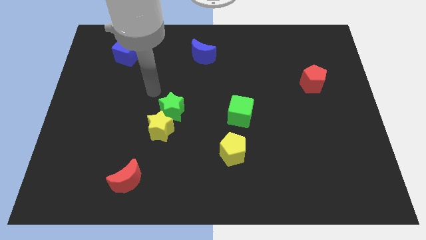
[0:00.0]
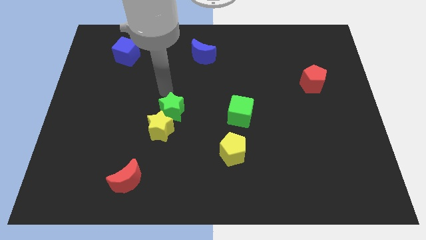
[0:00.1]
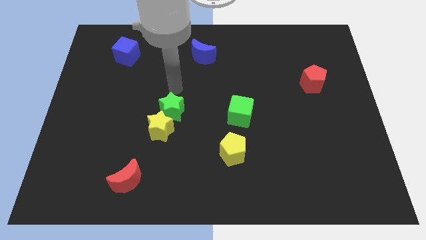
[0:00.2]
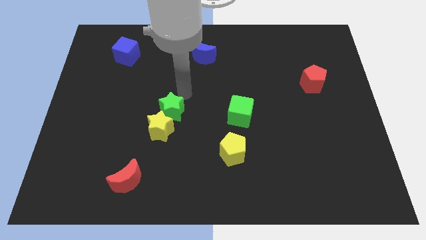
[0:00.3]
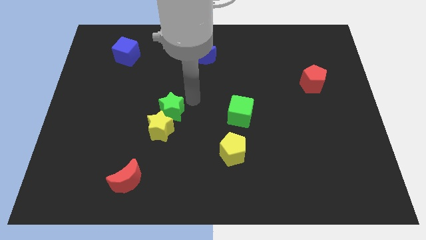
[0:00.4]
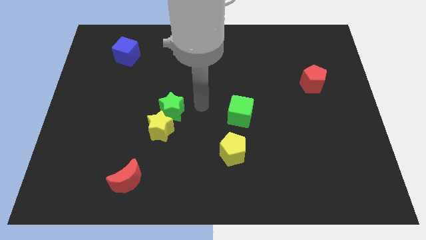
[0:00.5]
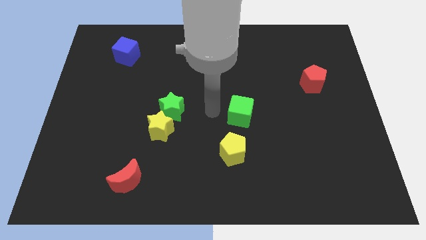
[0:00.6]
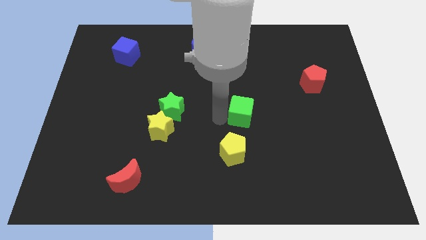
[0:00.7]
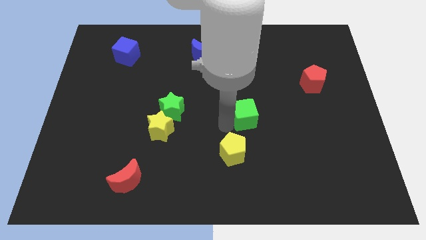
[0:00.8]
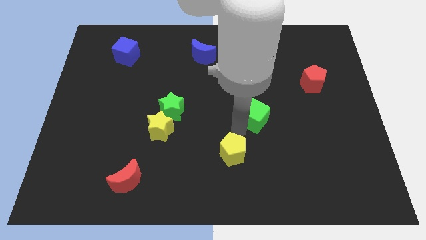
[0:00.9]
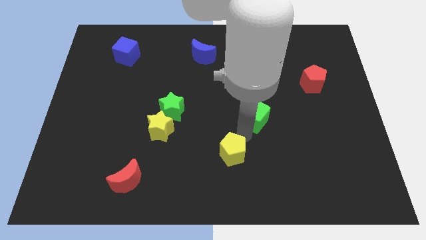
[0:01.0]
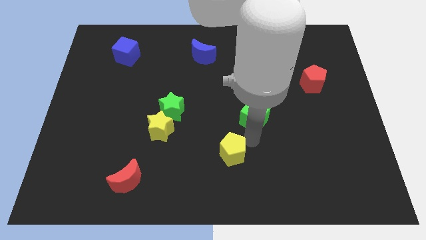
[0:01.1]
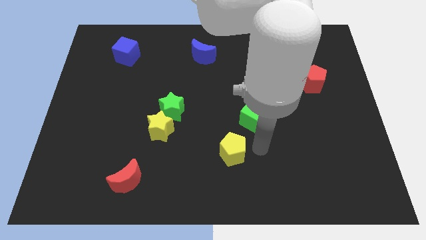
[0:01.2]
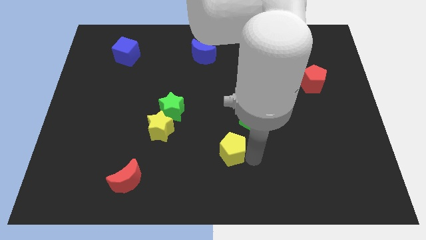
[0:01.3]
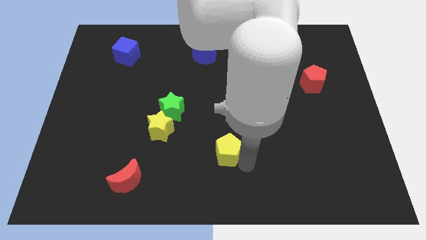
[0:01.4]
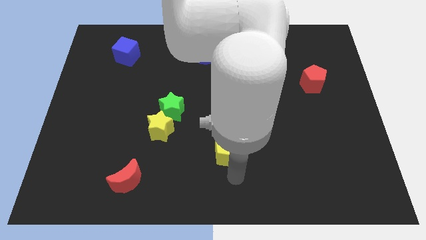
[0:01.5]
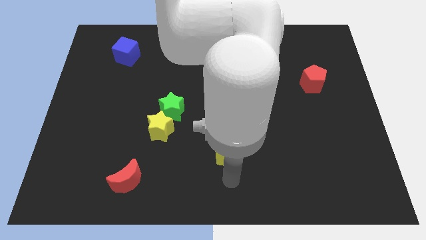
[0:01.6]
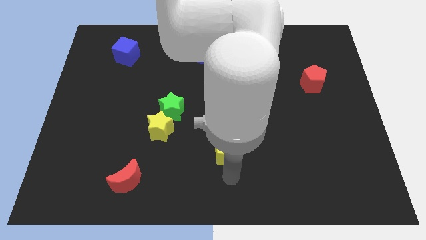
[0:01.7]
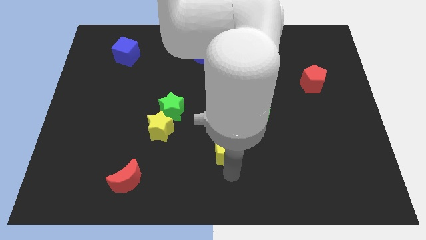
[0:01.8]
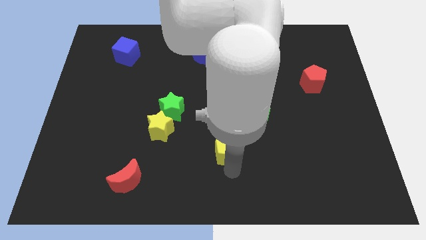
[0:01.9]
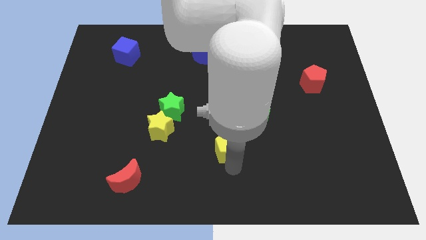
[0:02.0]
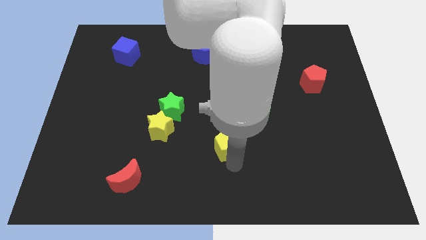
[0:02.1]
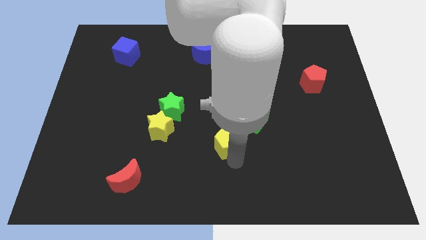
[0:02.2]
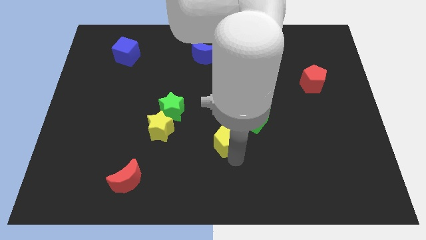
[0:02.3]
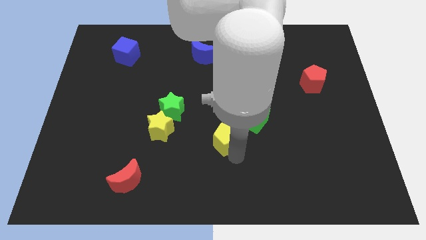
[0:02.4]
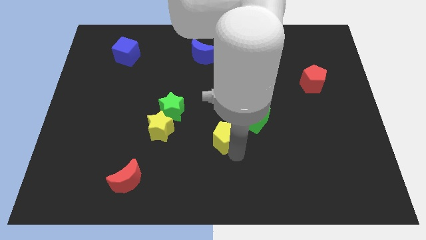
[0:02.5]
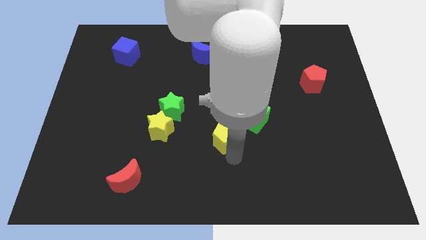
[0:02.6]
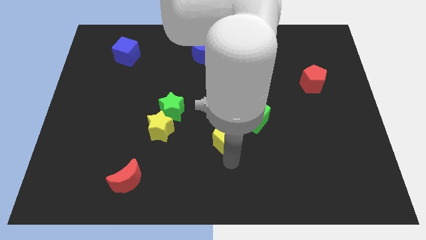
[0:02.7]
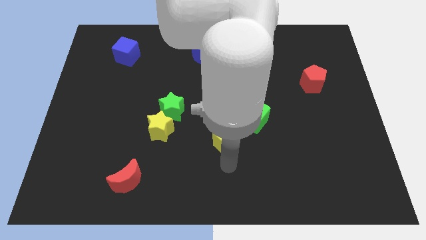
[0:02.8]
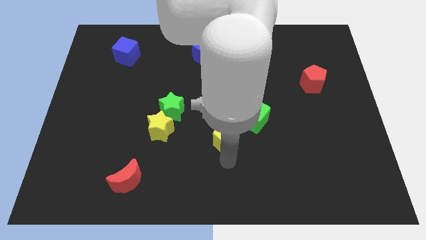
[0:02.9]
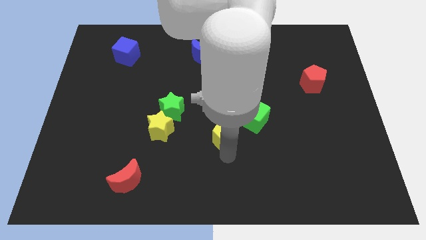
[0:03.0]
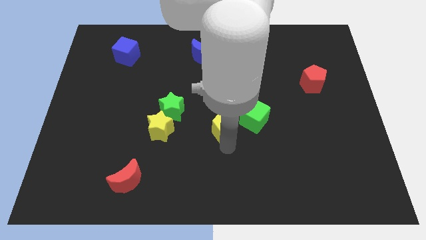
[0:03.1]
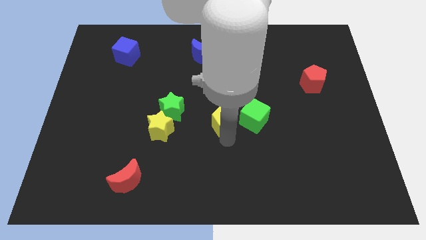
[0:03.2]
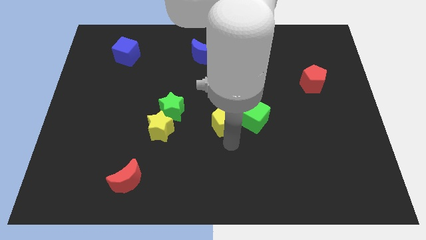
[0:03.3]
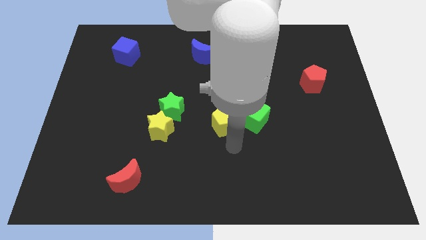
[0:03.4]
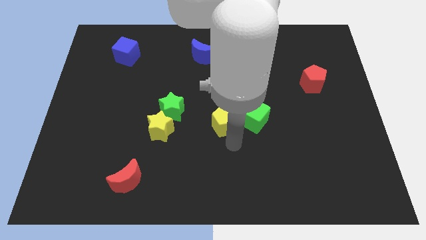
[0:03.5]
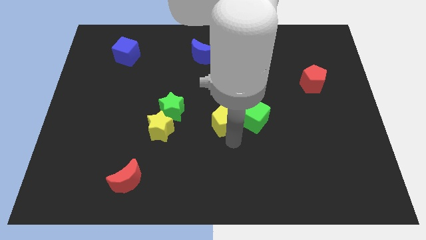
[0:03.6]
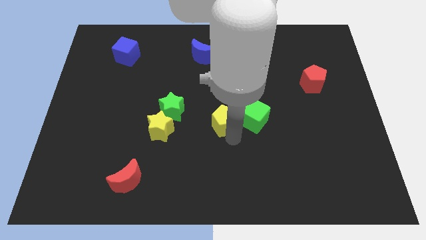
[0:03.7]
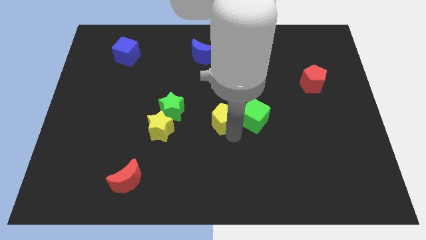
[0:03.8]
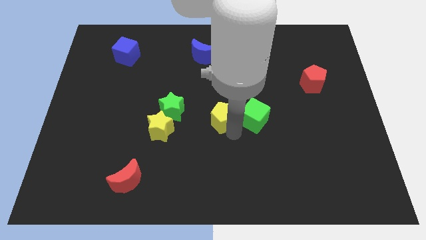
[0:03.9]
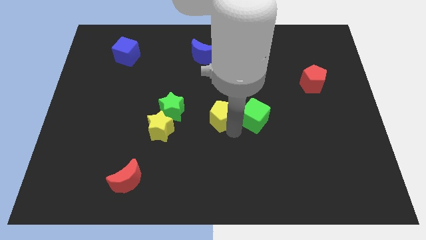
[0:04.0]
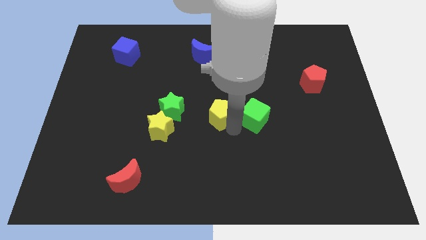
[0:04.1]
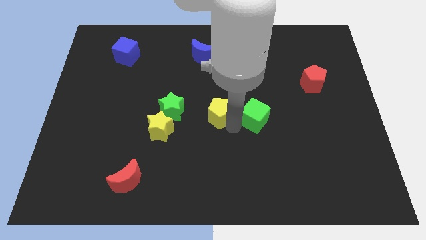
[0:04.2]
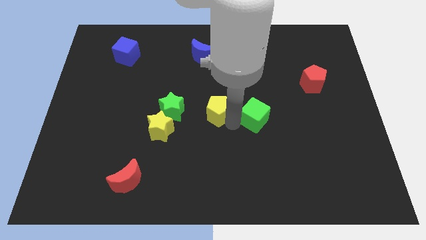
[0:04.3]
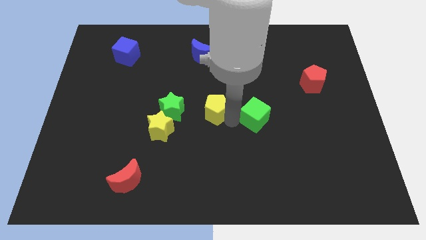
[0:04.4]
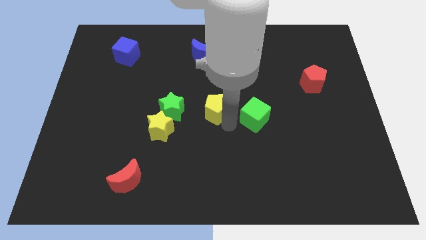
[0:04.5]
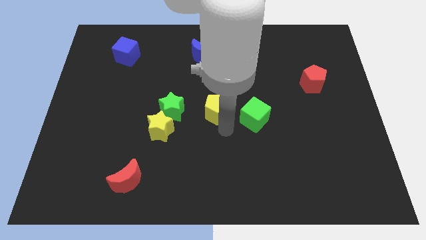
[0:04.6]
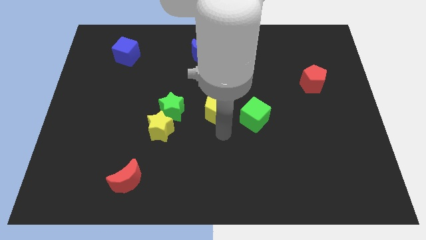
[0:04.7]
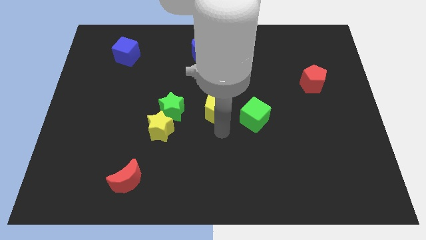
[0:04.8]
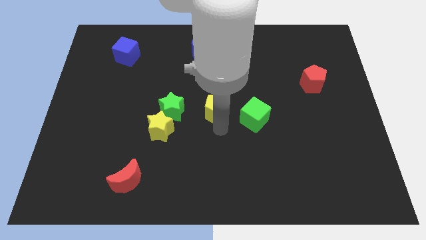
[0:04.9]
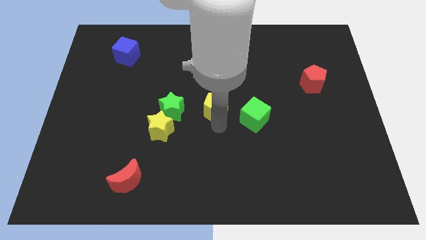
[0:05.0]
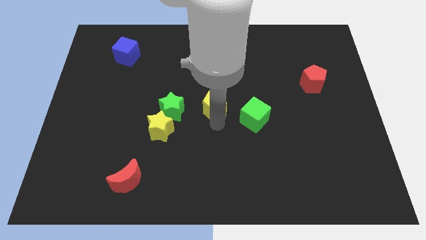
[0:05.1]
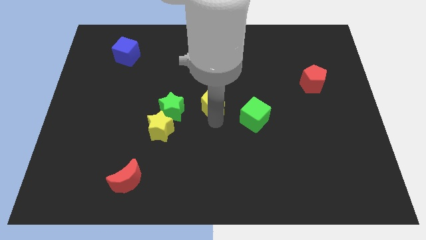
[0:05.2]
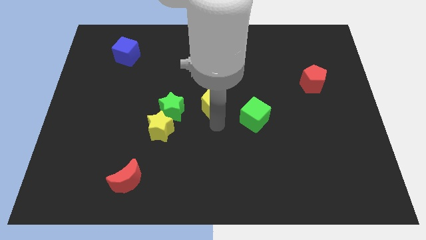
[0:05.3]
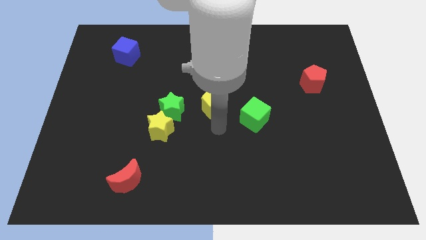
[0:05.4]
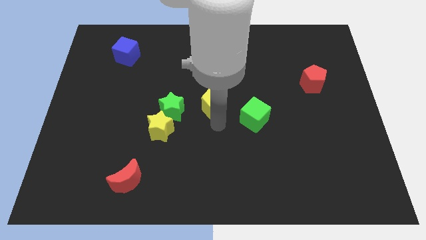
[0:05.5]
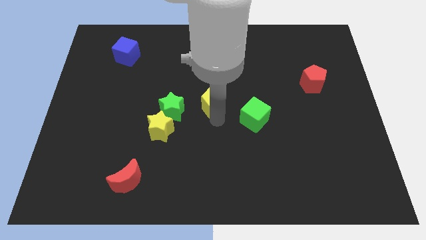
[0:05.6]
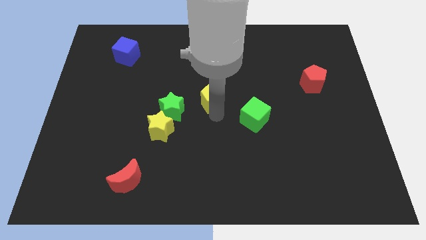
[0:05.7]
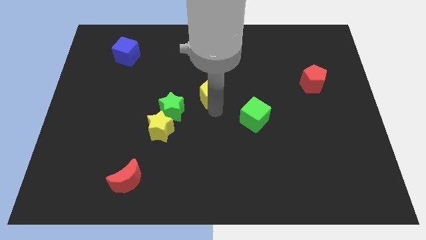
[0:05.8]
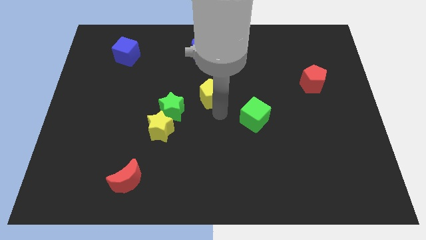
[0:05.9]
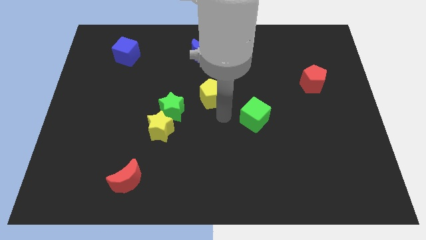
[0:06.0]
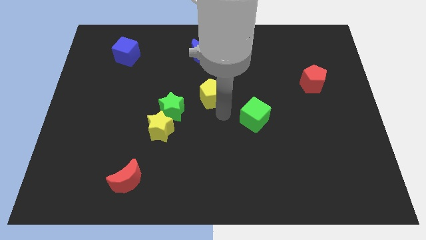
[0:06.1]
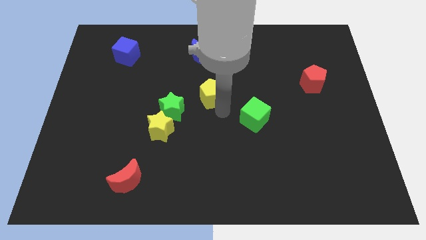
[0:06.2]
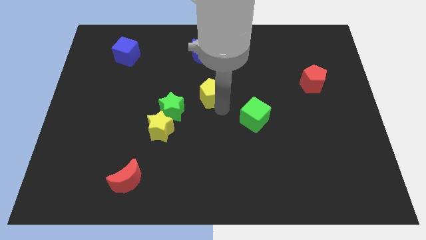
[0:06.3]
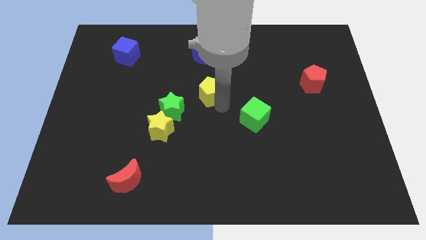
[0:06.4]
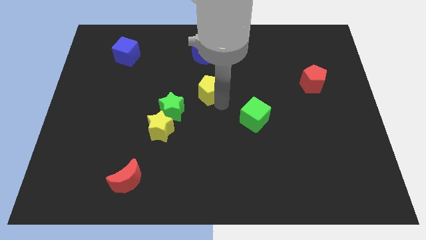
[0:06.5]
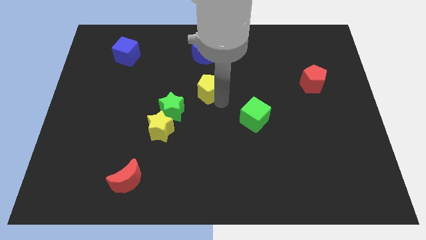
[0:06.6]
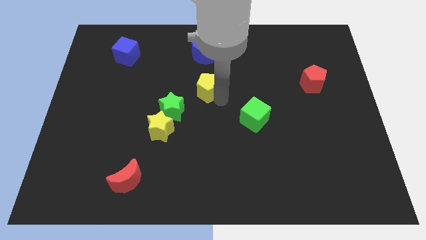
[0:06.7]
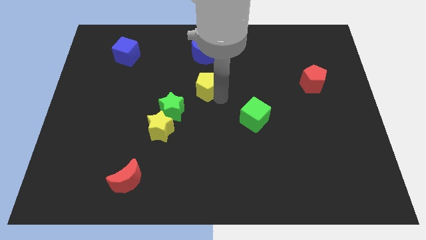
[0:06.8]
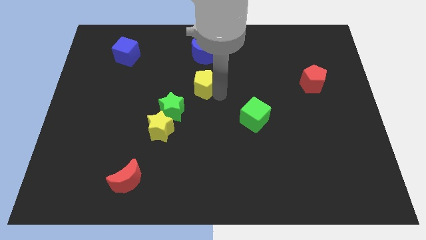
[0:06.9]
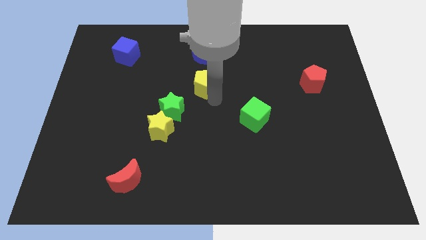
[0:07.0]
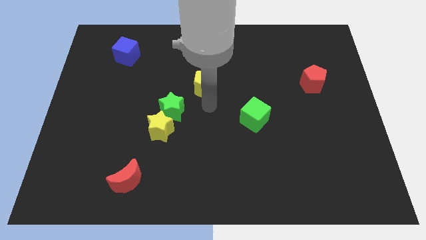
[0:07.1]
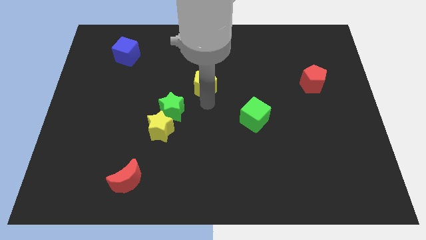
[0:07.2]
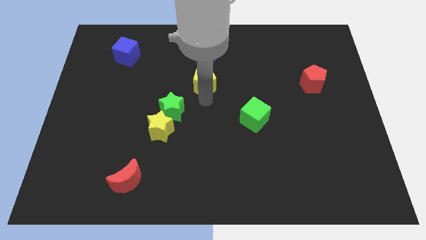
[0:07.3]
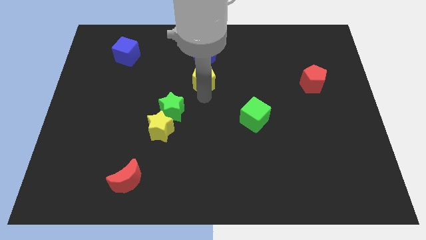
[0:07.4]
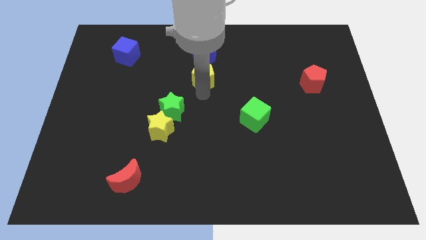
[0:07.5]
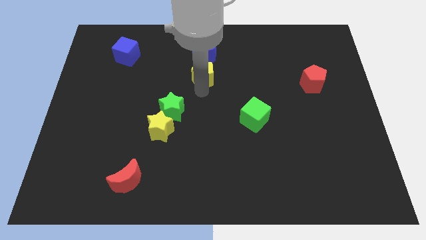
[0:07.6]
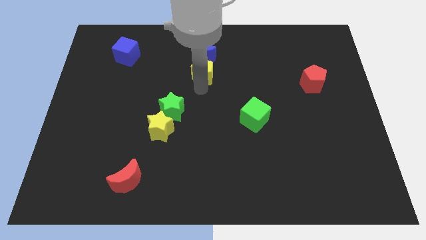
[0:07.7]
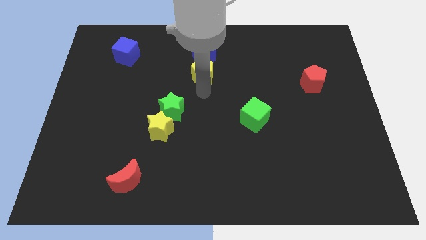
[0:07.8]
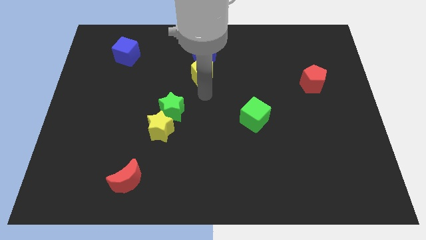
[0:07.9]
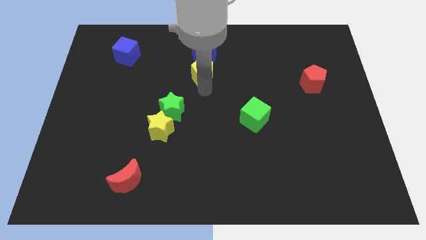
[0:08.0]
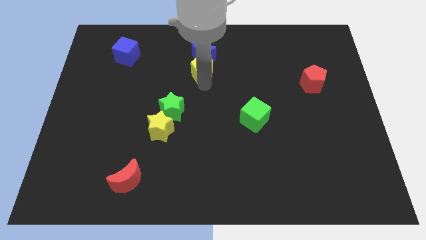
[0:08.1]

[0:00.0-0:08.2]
move the yellow pentagon to the blue moon
